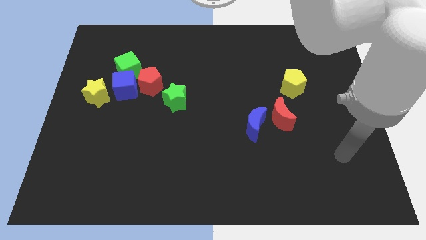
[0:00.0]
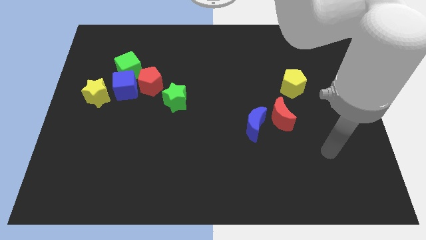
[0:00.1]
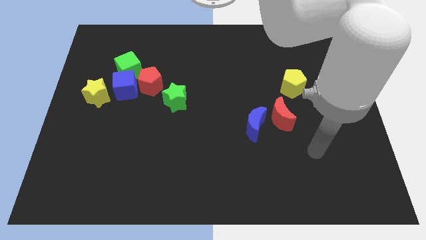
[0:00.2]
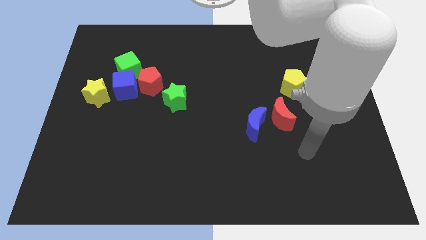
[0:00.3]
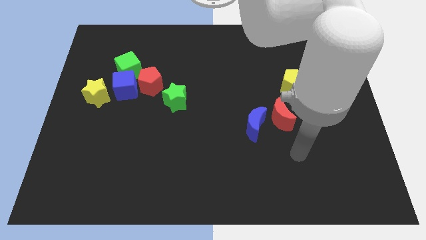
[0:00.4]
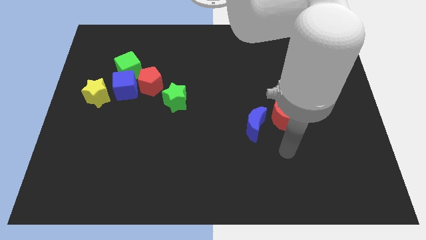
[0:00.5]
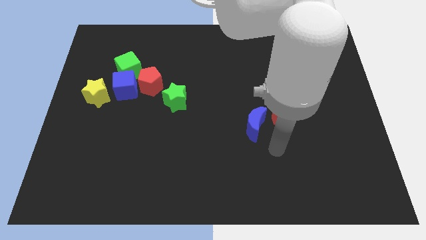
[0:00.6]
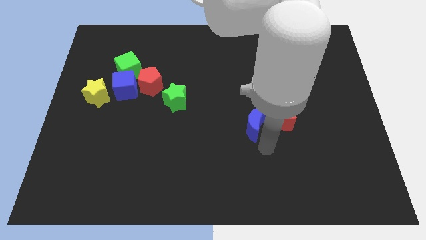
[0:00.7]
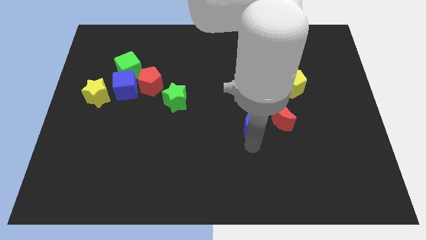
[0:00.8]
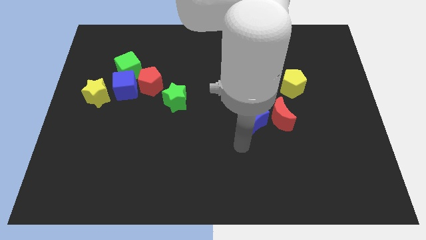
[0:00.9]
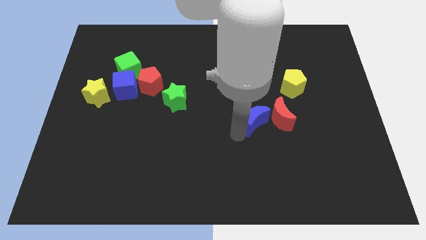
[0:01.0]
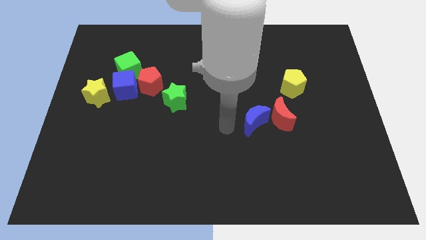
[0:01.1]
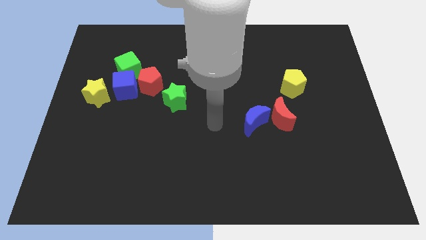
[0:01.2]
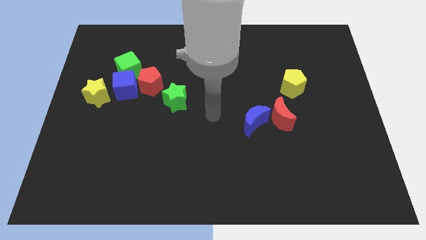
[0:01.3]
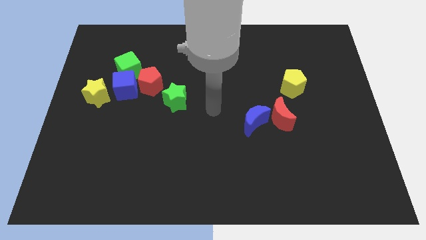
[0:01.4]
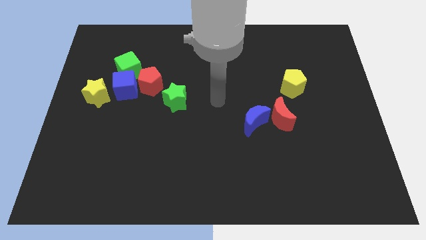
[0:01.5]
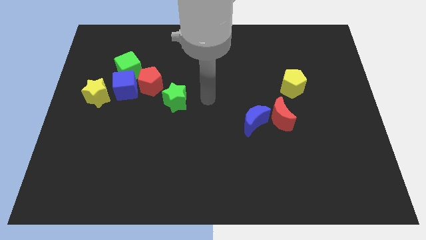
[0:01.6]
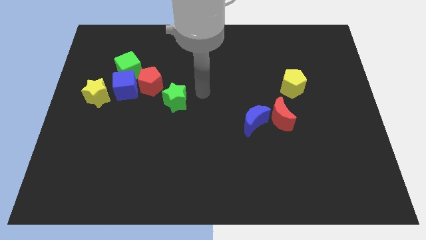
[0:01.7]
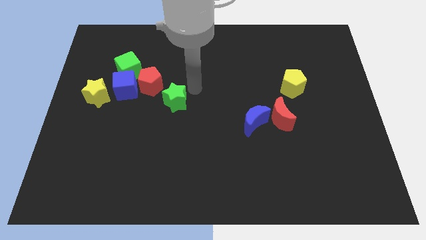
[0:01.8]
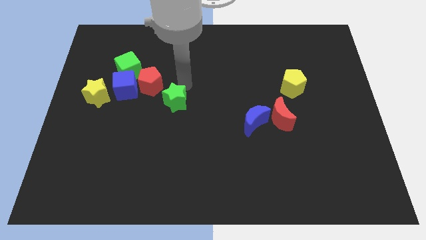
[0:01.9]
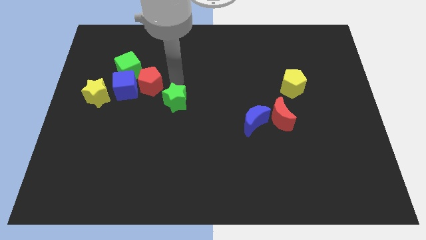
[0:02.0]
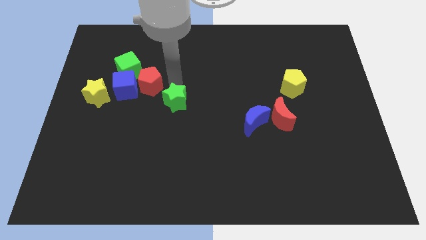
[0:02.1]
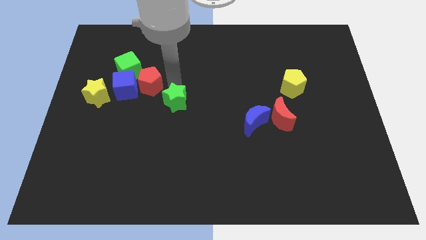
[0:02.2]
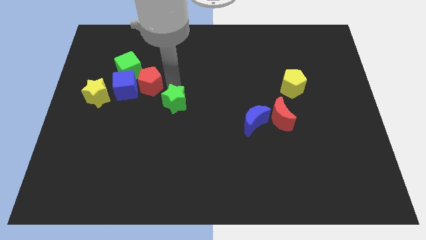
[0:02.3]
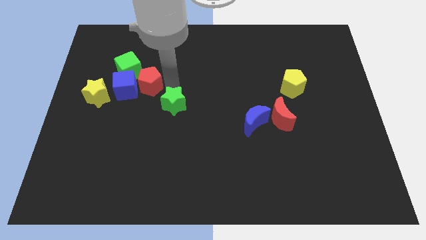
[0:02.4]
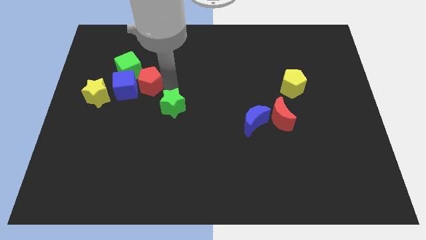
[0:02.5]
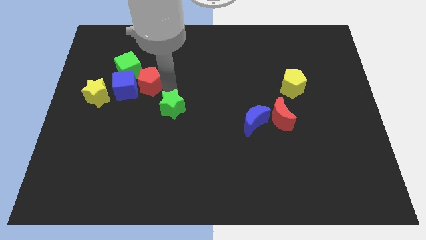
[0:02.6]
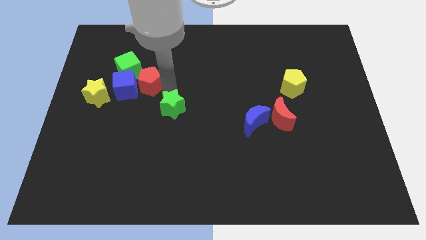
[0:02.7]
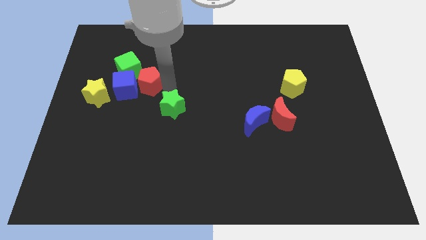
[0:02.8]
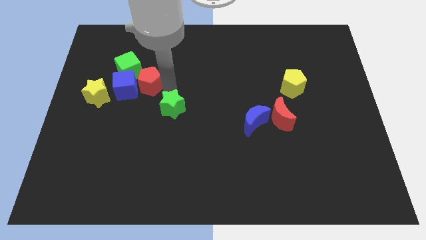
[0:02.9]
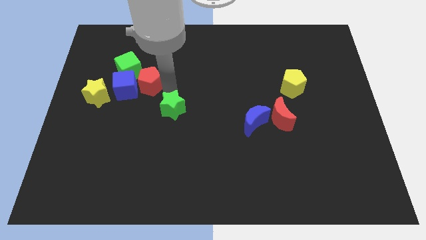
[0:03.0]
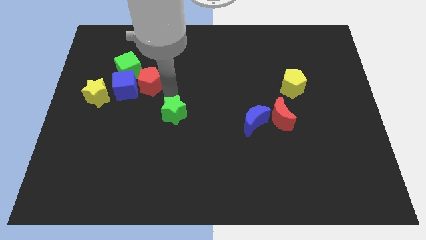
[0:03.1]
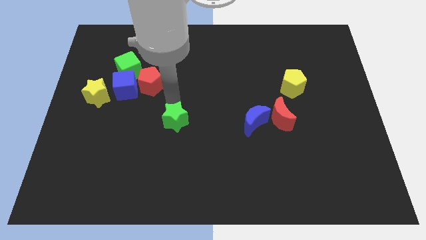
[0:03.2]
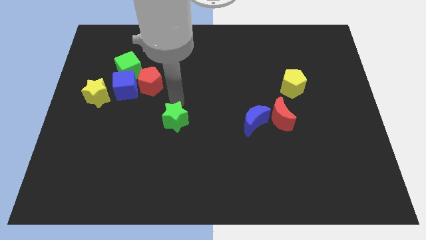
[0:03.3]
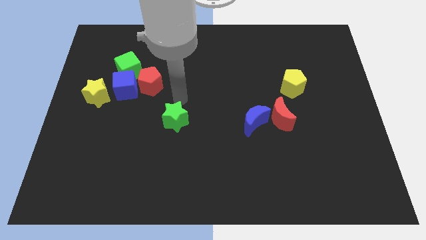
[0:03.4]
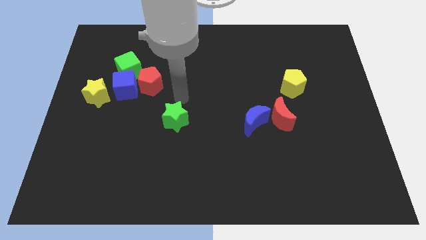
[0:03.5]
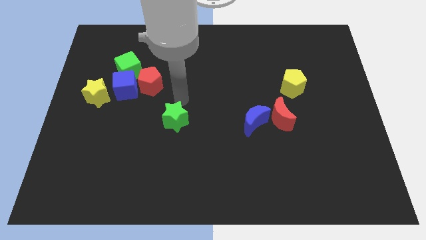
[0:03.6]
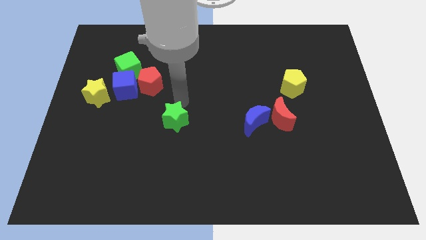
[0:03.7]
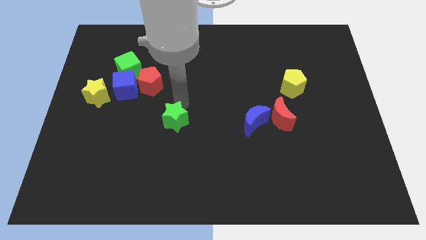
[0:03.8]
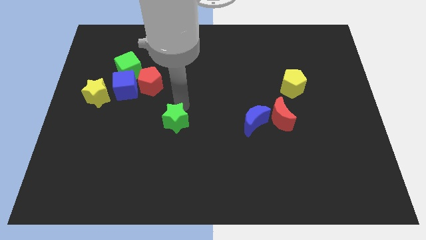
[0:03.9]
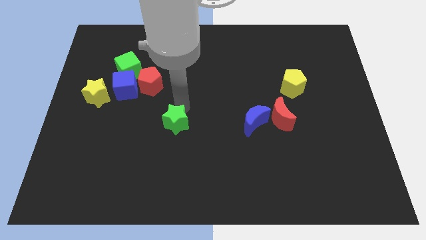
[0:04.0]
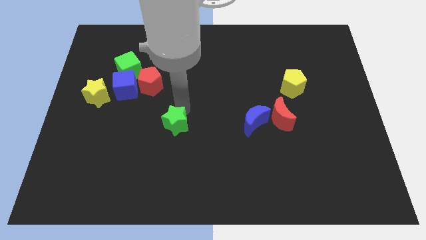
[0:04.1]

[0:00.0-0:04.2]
slide the green star down somewhat

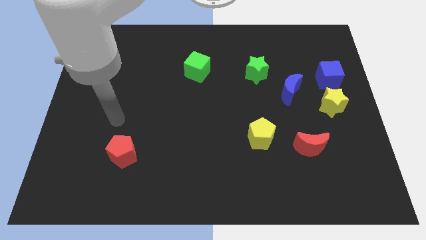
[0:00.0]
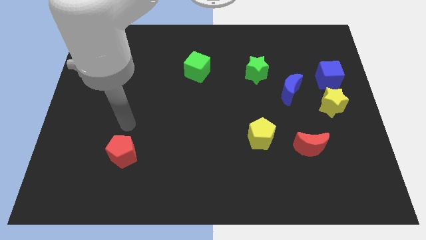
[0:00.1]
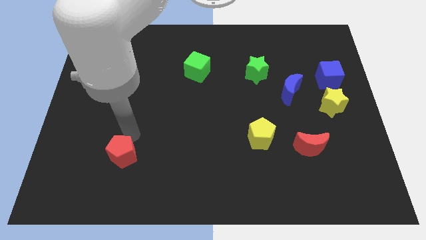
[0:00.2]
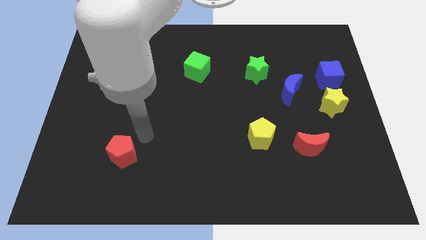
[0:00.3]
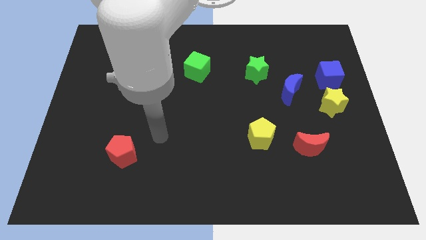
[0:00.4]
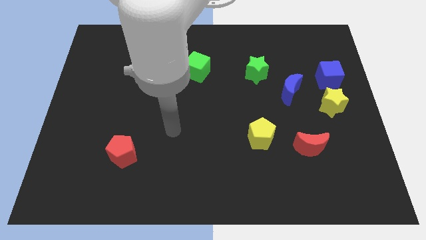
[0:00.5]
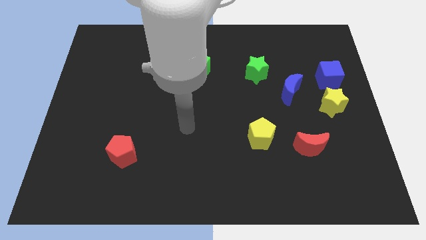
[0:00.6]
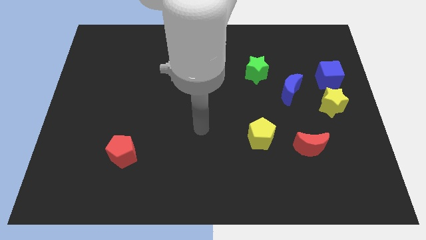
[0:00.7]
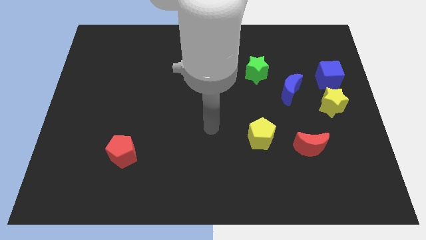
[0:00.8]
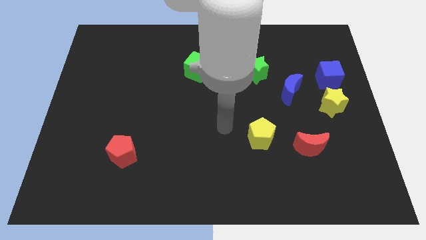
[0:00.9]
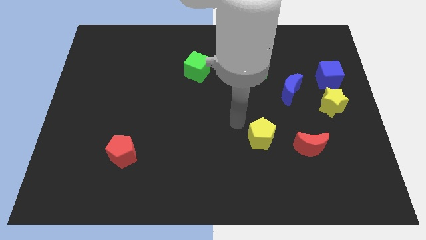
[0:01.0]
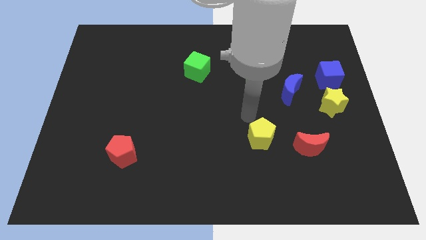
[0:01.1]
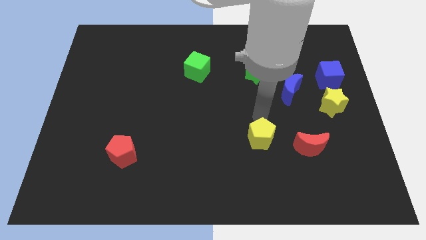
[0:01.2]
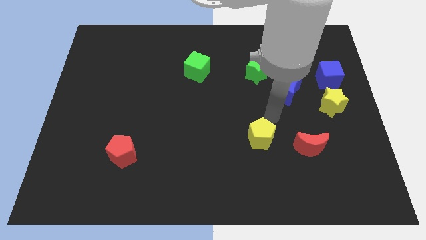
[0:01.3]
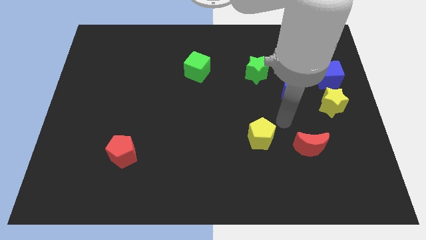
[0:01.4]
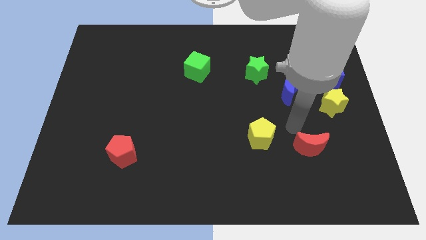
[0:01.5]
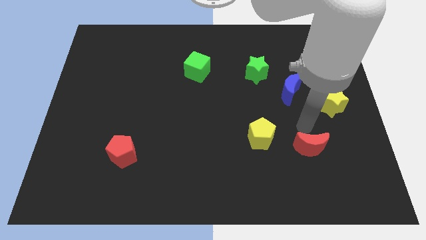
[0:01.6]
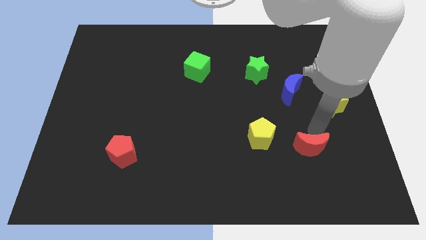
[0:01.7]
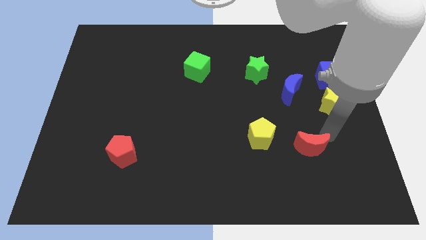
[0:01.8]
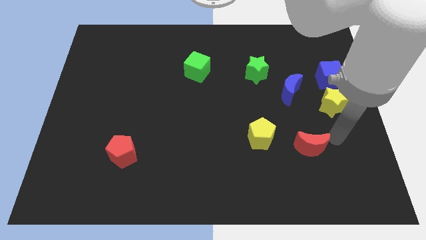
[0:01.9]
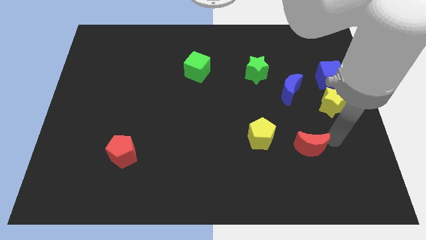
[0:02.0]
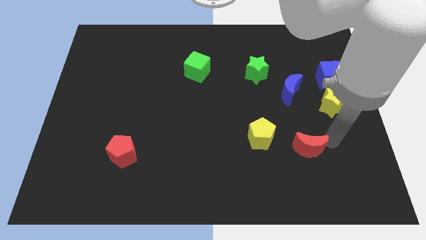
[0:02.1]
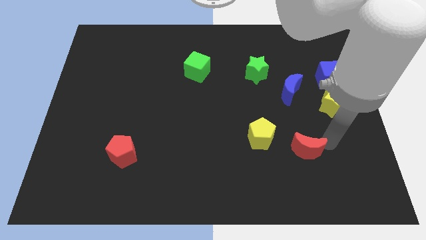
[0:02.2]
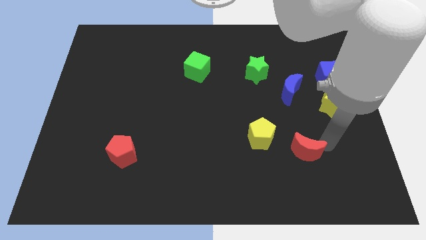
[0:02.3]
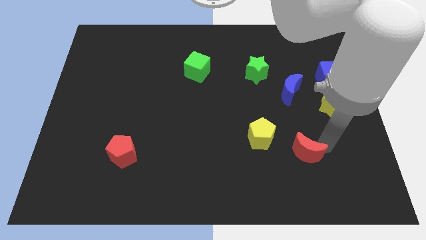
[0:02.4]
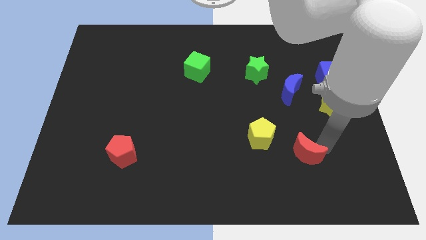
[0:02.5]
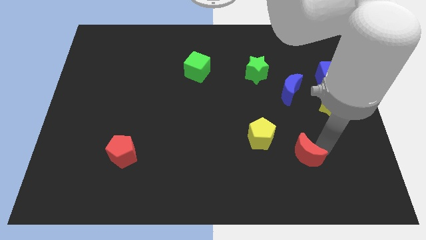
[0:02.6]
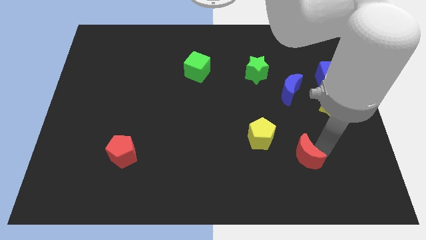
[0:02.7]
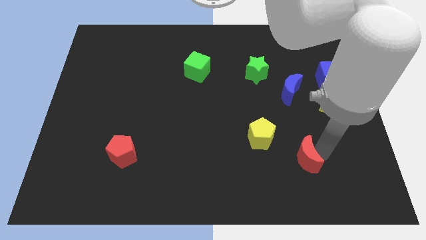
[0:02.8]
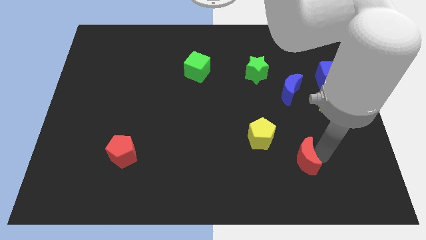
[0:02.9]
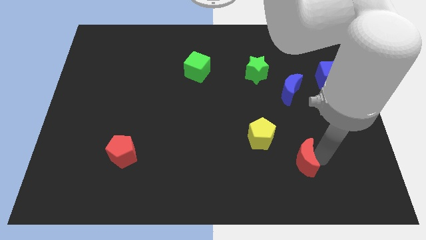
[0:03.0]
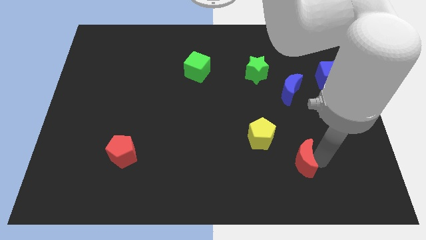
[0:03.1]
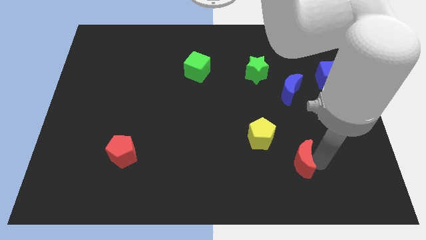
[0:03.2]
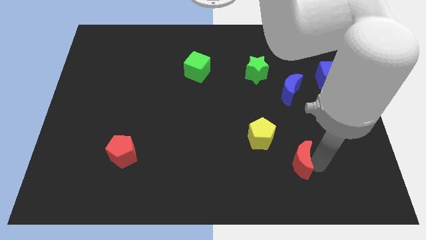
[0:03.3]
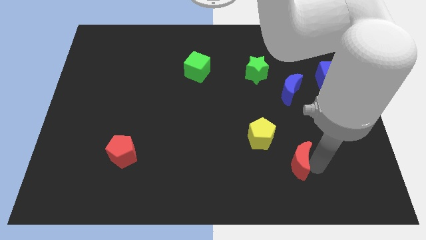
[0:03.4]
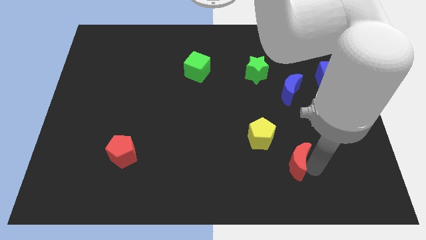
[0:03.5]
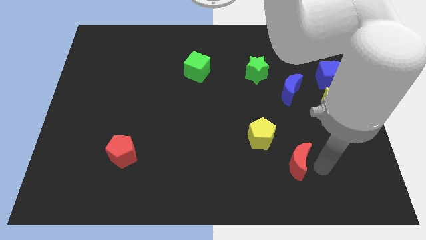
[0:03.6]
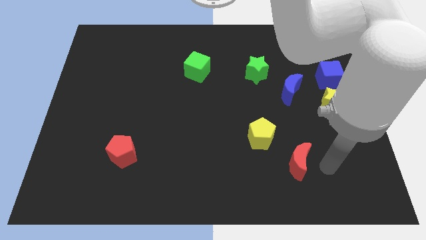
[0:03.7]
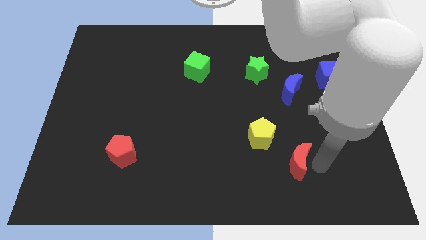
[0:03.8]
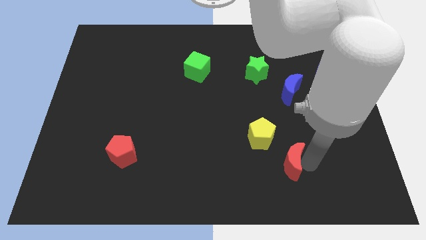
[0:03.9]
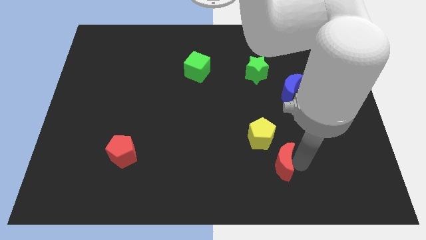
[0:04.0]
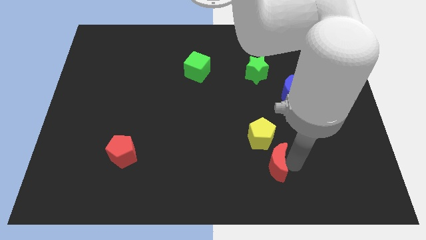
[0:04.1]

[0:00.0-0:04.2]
push the red moon a little left
